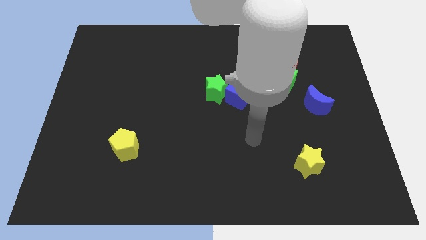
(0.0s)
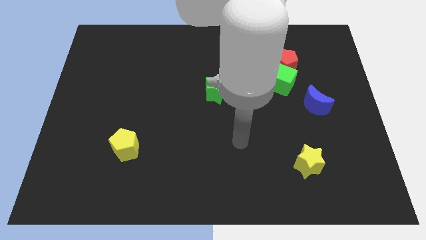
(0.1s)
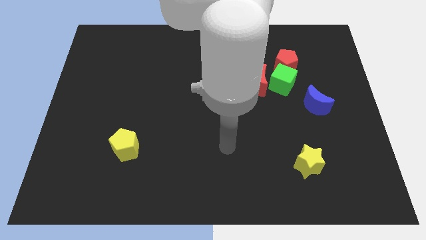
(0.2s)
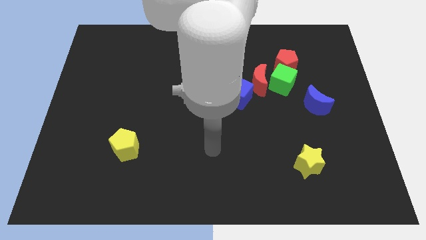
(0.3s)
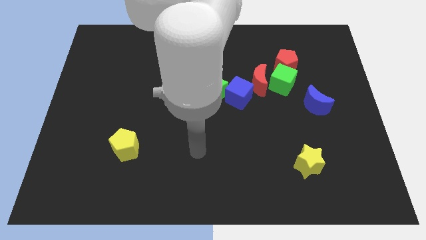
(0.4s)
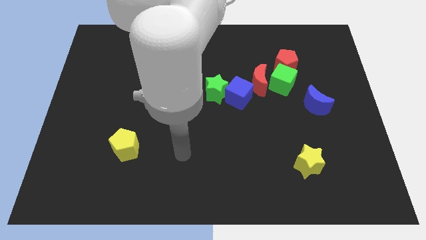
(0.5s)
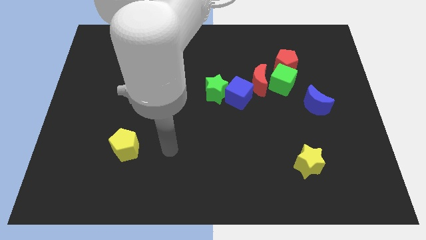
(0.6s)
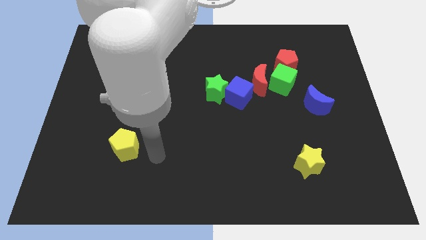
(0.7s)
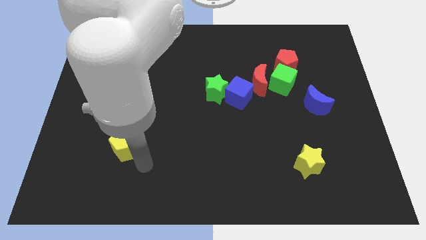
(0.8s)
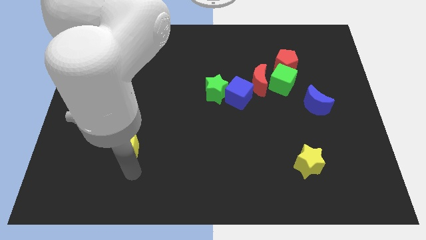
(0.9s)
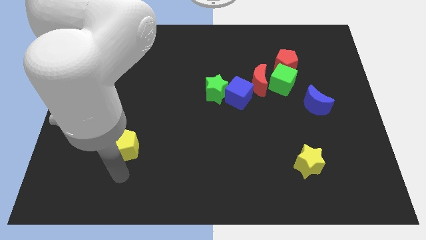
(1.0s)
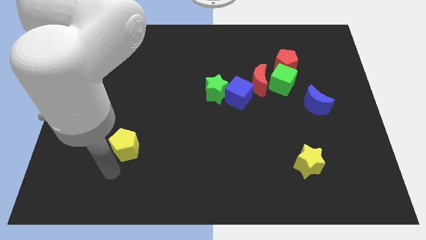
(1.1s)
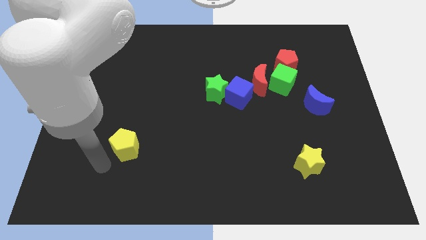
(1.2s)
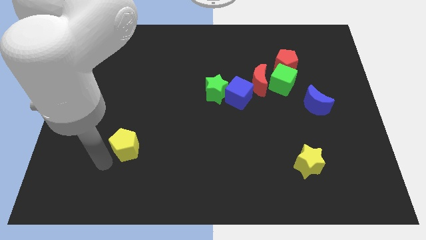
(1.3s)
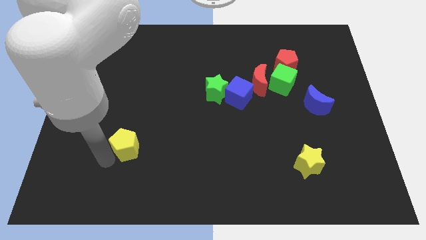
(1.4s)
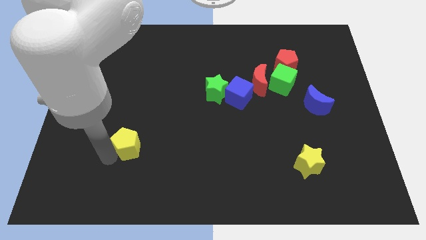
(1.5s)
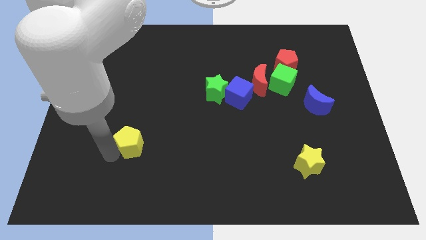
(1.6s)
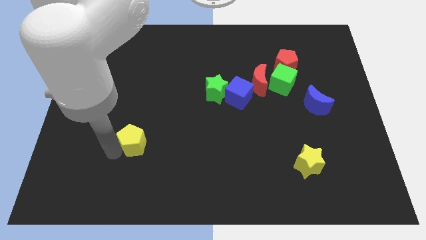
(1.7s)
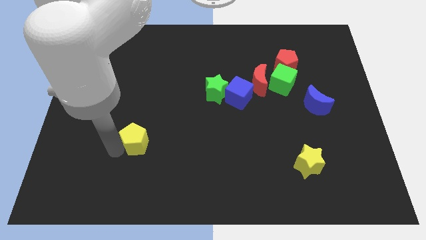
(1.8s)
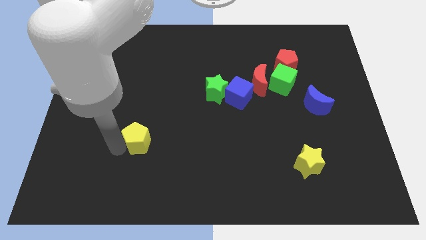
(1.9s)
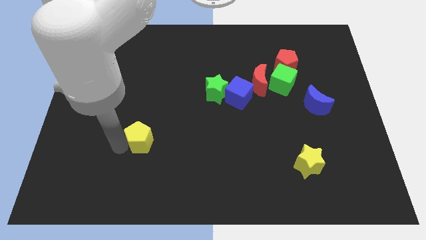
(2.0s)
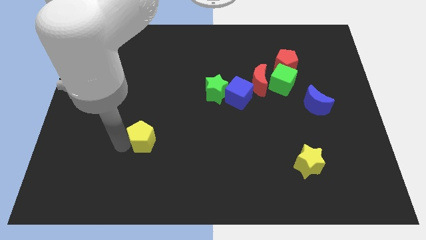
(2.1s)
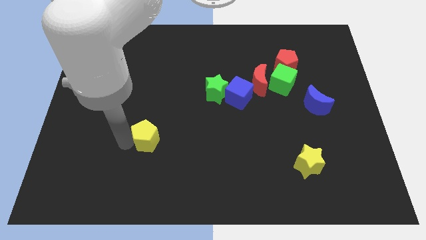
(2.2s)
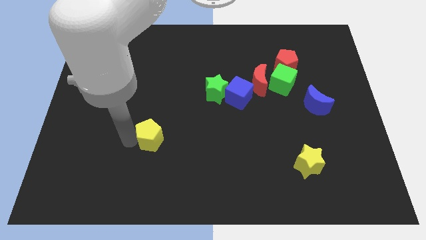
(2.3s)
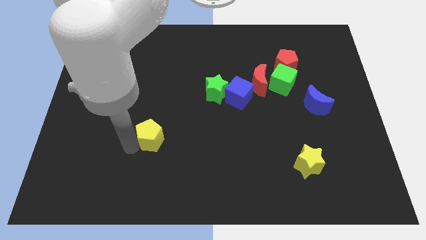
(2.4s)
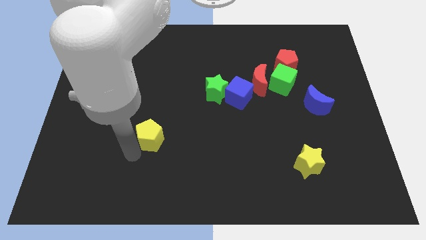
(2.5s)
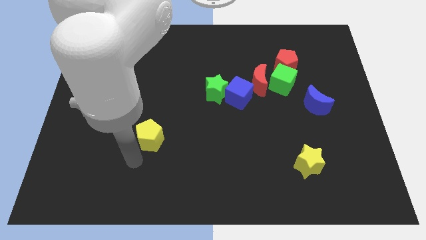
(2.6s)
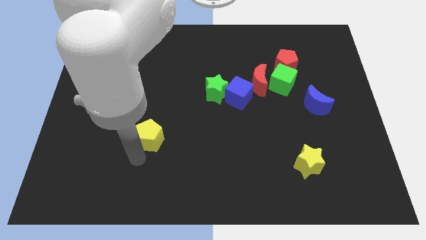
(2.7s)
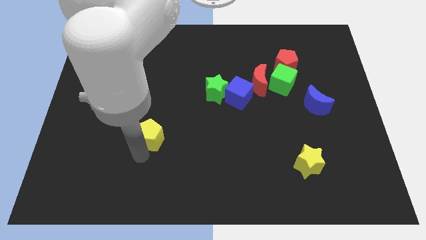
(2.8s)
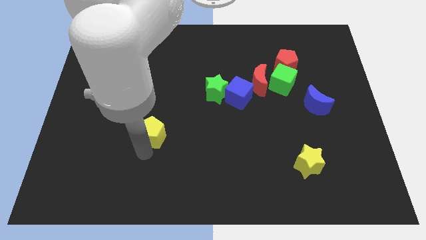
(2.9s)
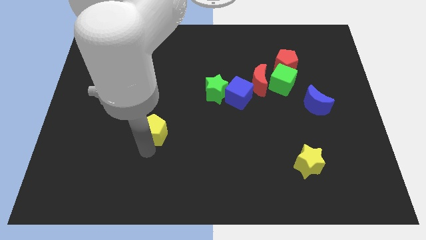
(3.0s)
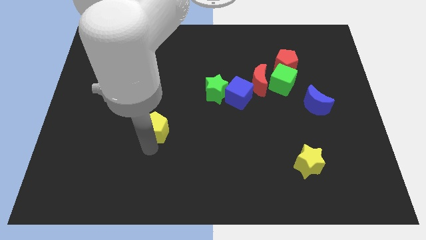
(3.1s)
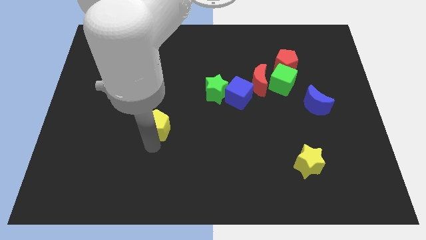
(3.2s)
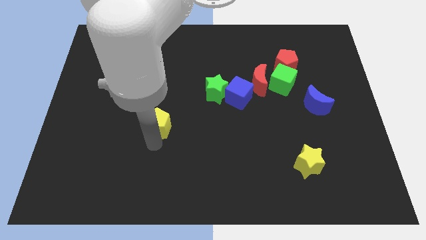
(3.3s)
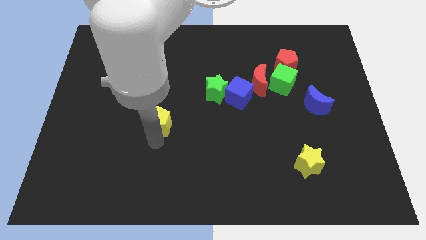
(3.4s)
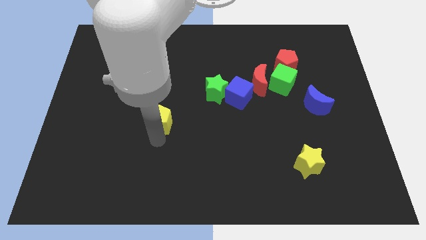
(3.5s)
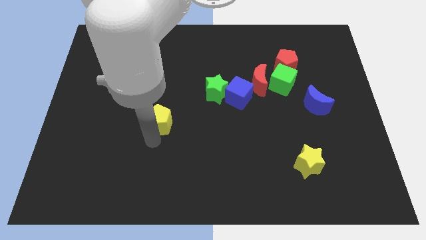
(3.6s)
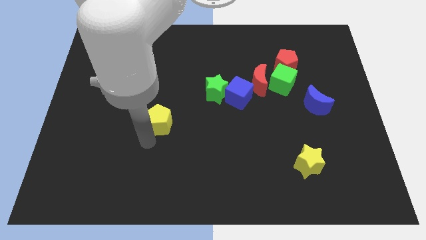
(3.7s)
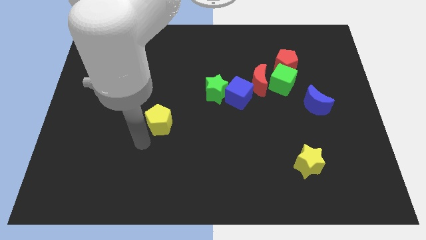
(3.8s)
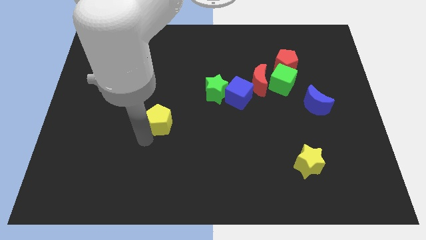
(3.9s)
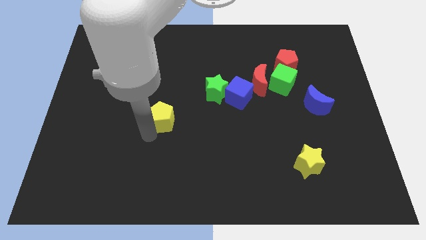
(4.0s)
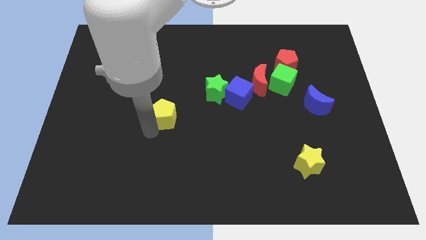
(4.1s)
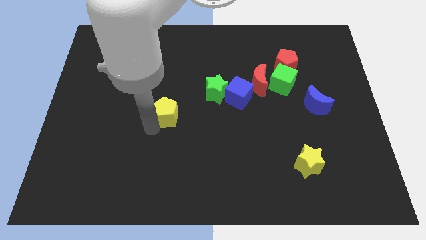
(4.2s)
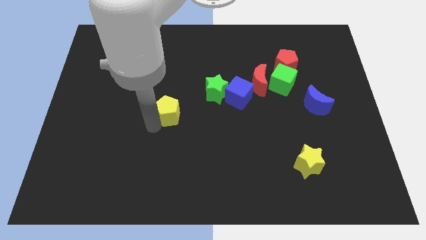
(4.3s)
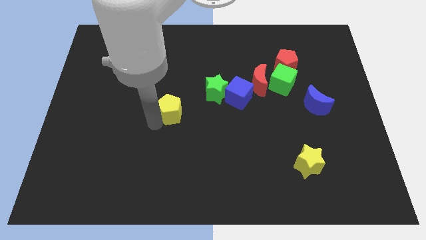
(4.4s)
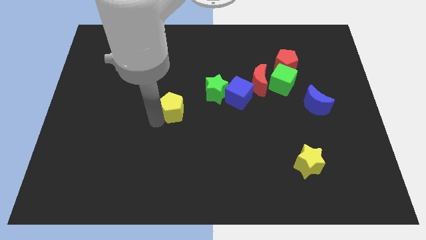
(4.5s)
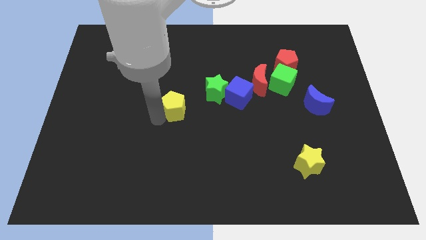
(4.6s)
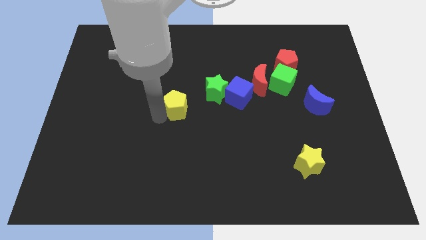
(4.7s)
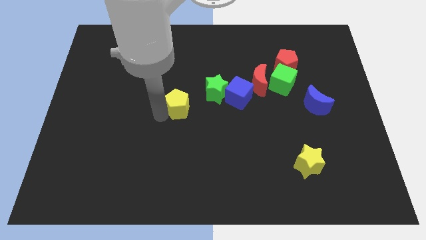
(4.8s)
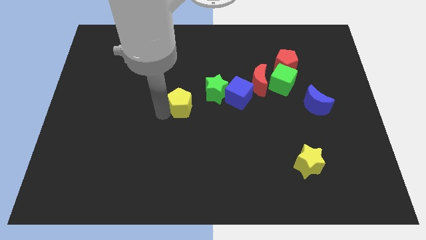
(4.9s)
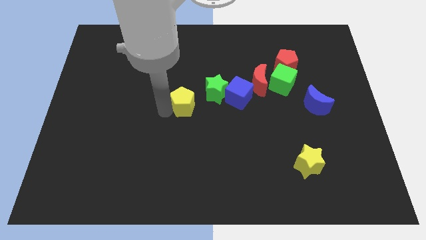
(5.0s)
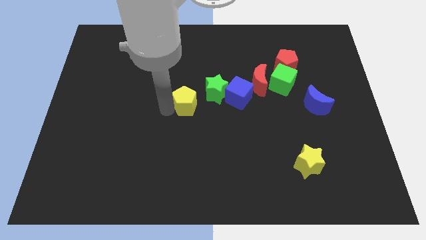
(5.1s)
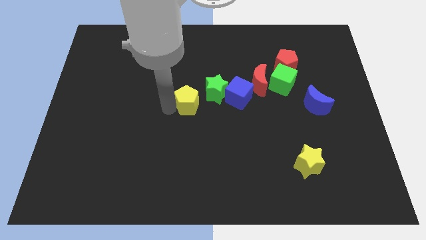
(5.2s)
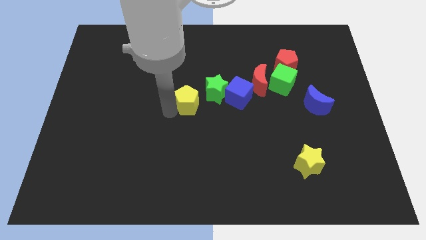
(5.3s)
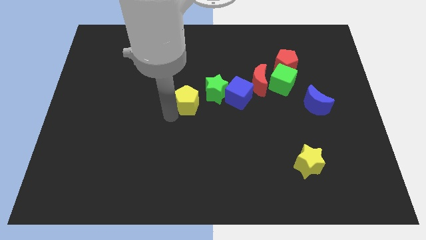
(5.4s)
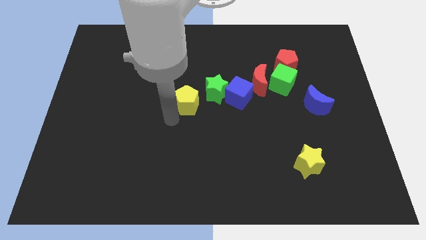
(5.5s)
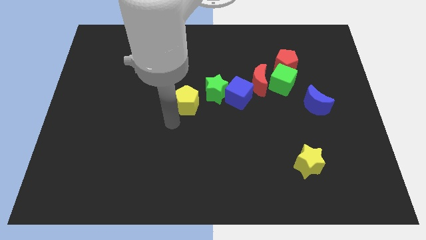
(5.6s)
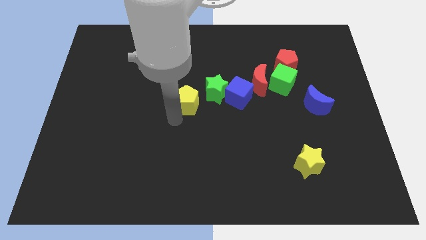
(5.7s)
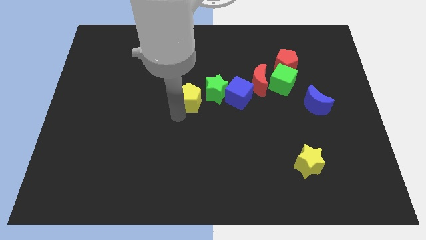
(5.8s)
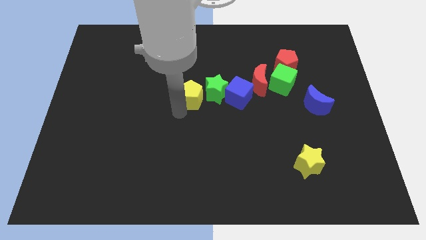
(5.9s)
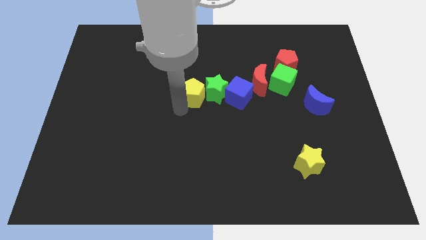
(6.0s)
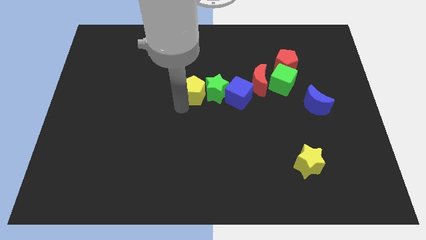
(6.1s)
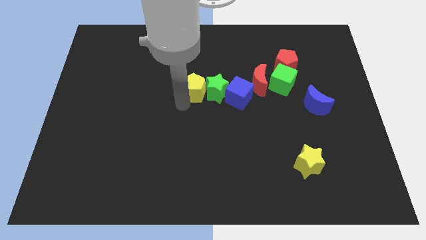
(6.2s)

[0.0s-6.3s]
put the yellow pentagon to the left side of the red moon

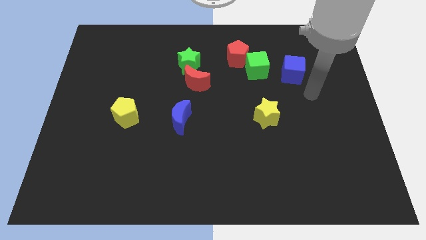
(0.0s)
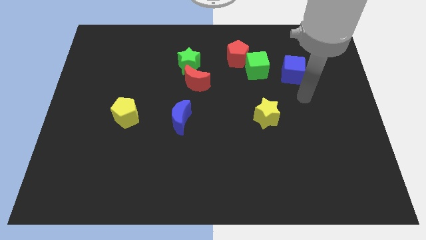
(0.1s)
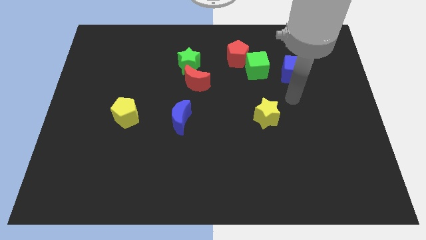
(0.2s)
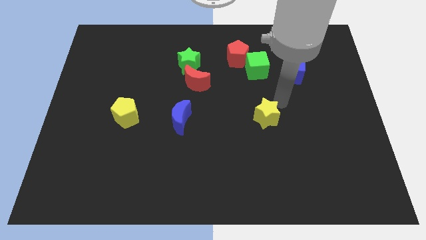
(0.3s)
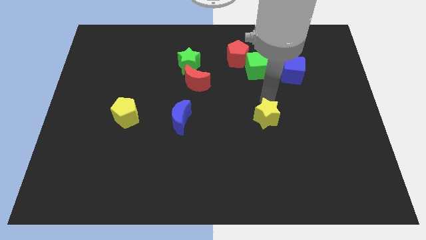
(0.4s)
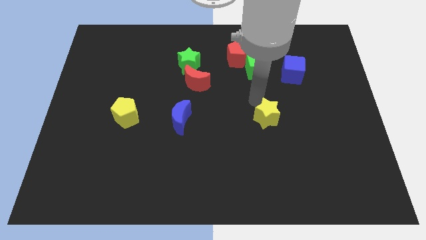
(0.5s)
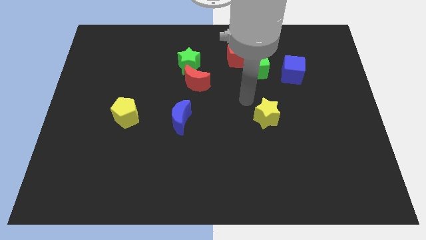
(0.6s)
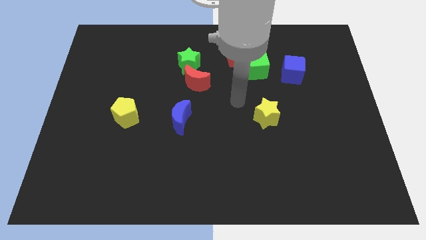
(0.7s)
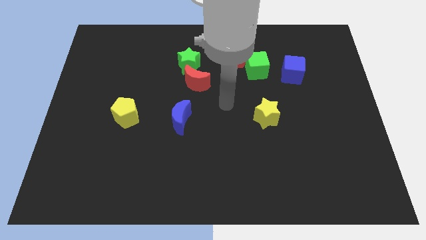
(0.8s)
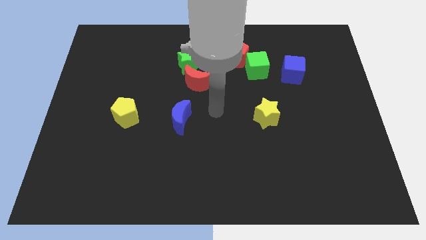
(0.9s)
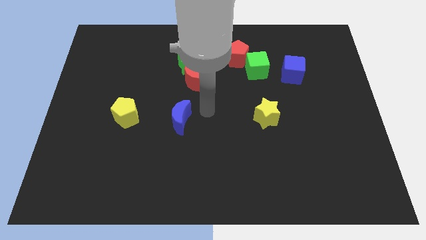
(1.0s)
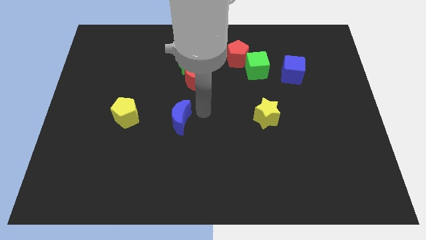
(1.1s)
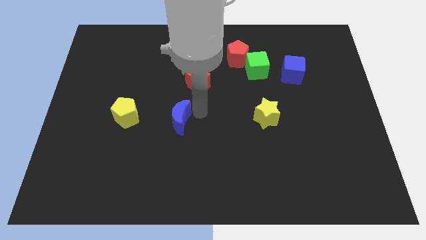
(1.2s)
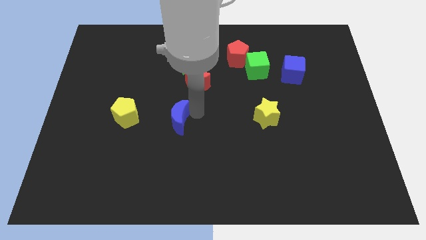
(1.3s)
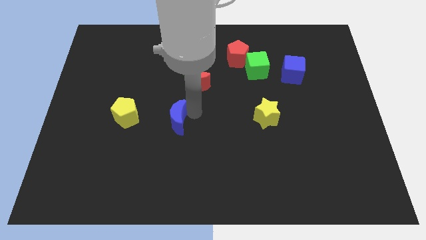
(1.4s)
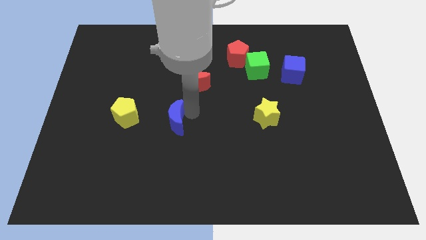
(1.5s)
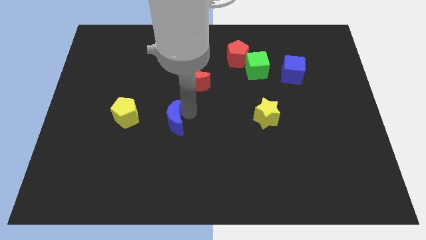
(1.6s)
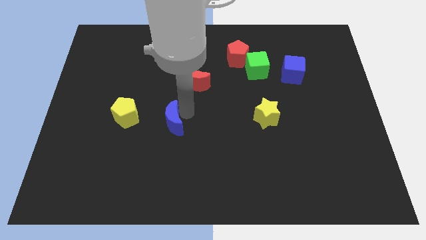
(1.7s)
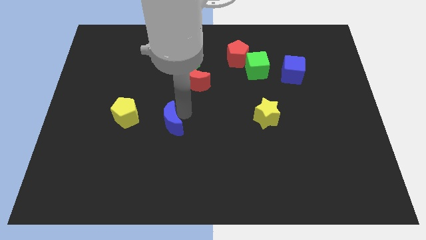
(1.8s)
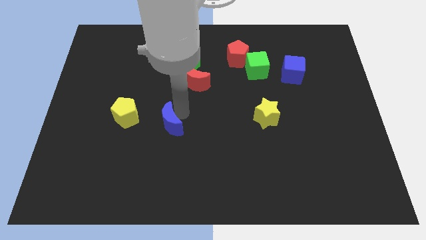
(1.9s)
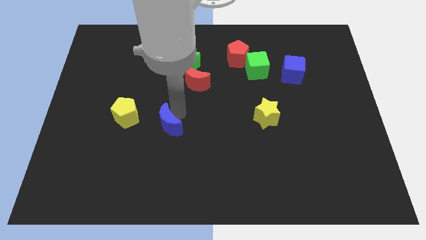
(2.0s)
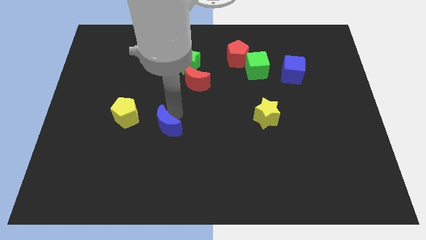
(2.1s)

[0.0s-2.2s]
push the blue moon to the bottom right side of the yellow pentagon
